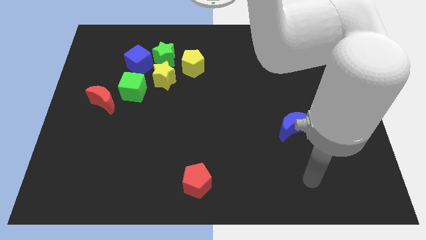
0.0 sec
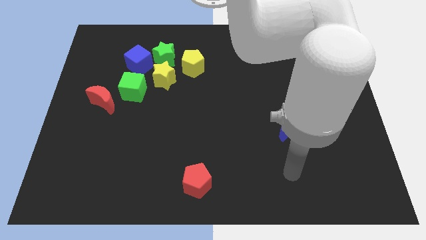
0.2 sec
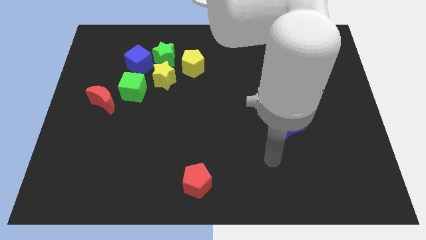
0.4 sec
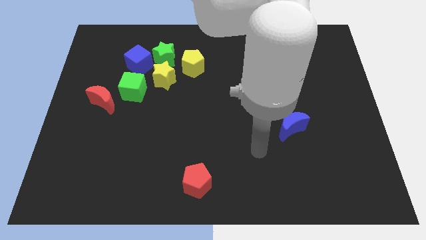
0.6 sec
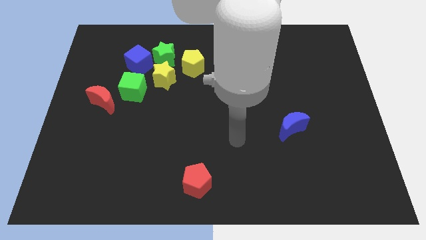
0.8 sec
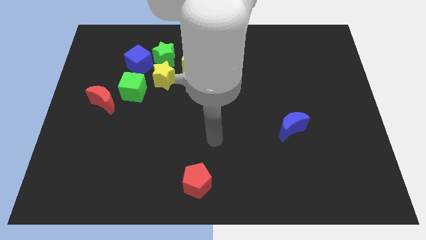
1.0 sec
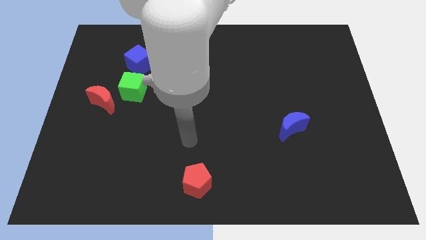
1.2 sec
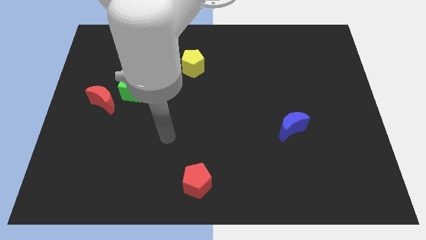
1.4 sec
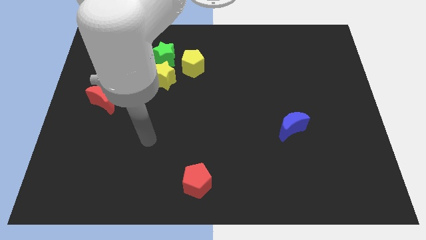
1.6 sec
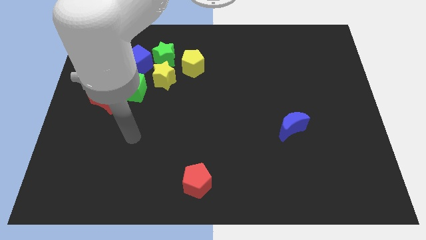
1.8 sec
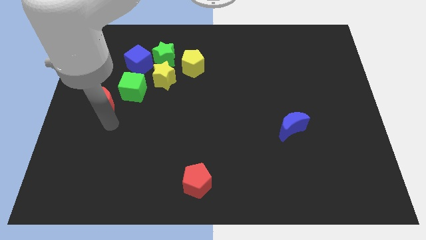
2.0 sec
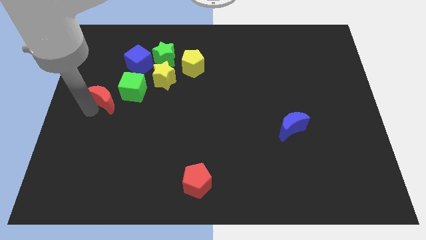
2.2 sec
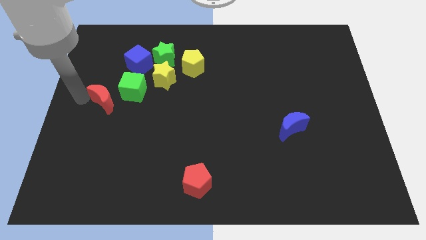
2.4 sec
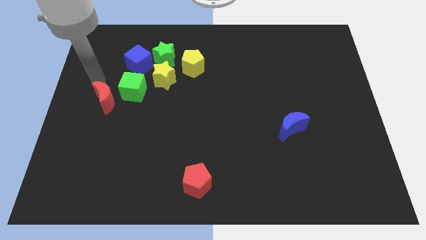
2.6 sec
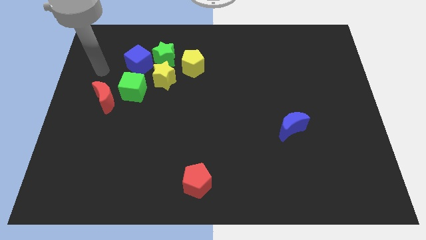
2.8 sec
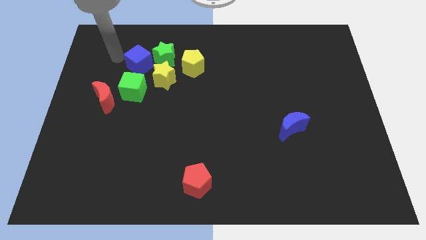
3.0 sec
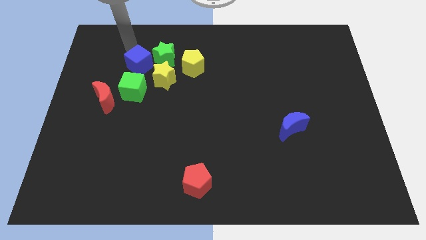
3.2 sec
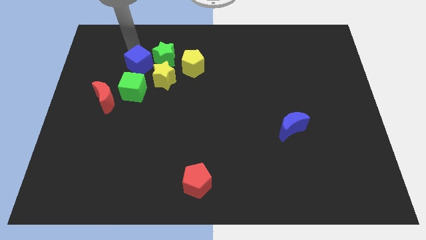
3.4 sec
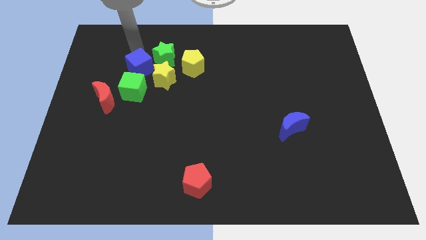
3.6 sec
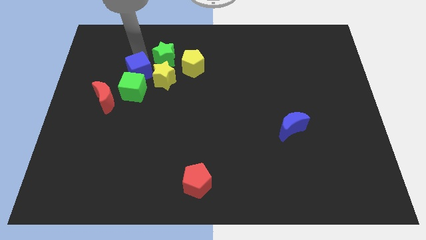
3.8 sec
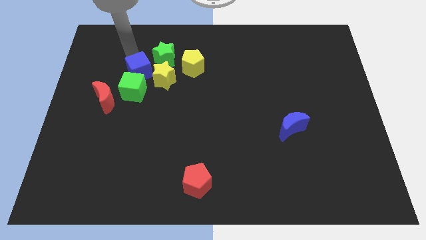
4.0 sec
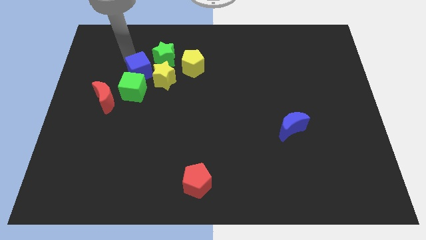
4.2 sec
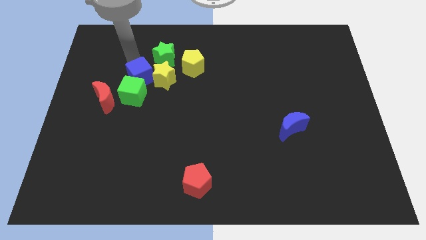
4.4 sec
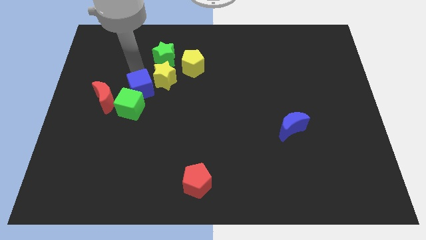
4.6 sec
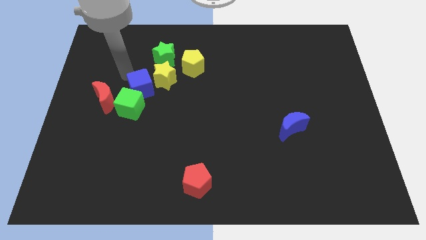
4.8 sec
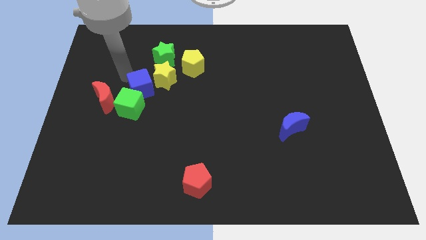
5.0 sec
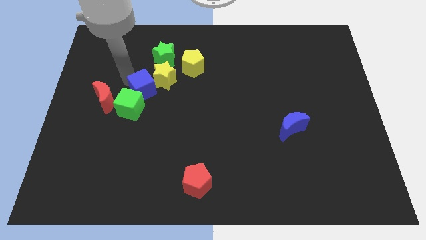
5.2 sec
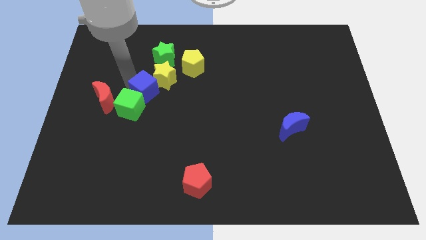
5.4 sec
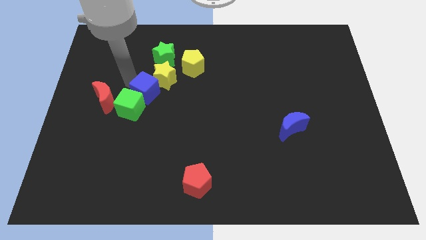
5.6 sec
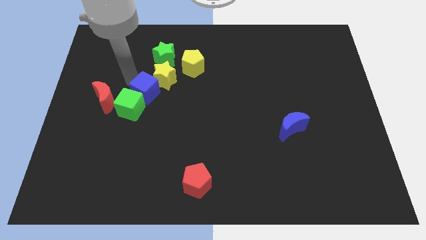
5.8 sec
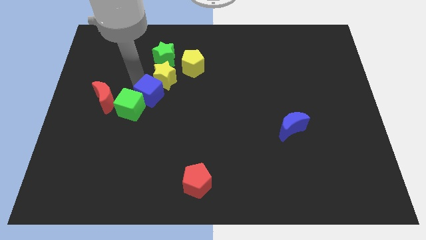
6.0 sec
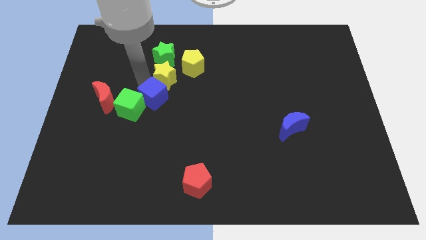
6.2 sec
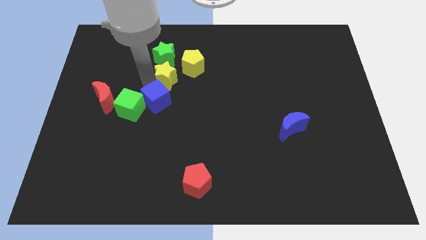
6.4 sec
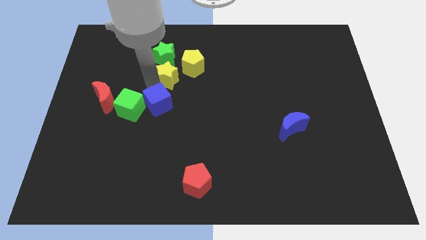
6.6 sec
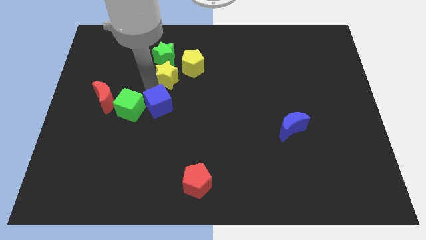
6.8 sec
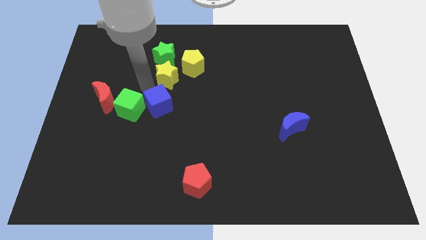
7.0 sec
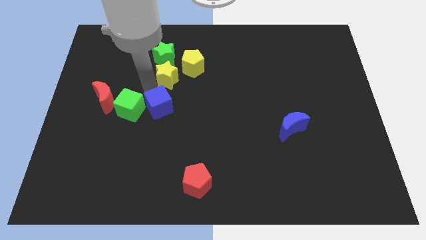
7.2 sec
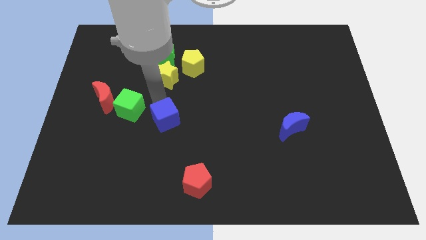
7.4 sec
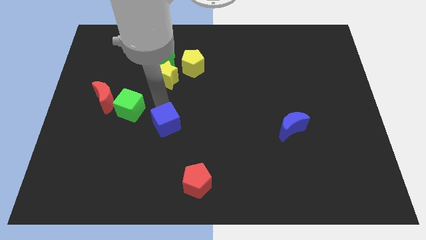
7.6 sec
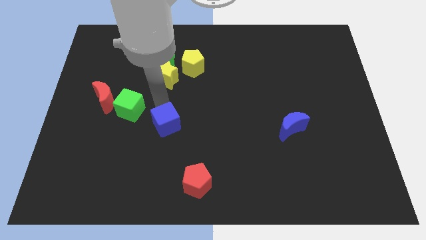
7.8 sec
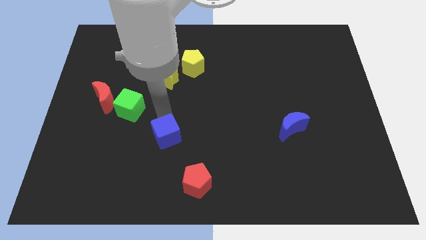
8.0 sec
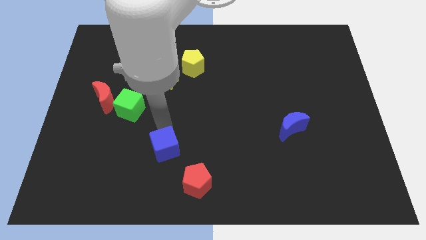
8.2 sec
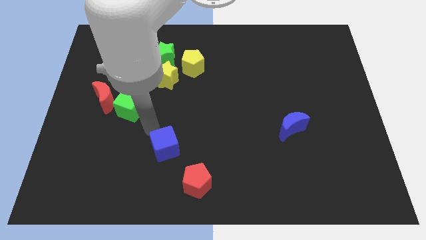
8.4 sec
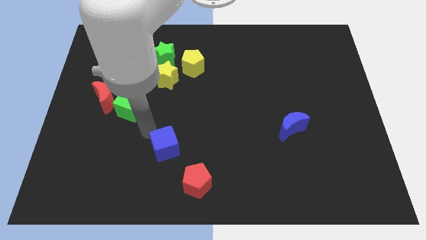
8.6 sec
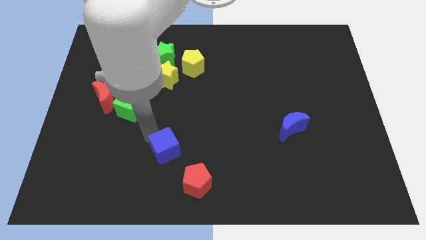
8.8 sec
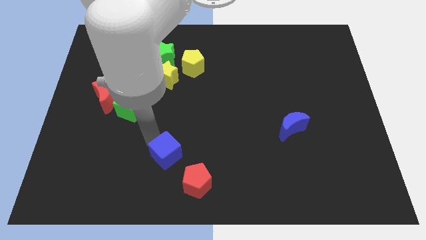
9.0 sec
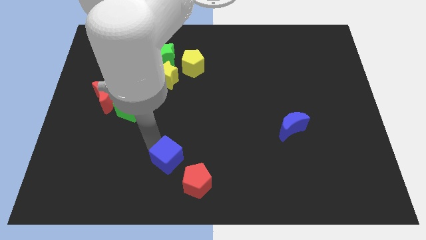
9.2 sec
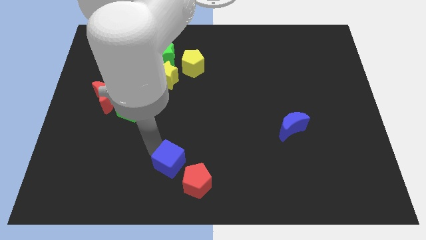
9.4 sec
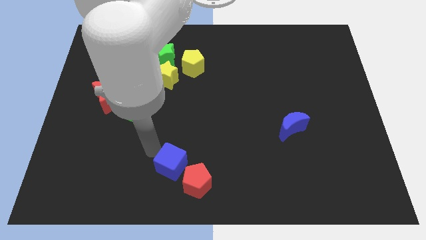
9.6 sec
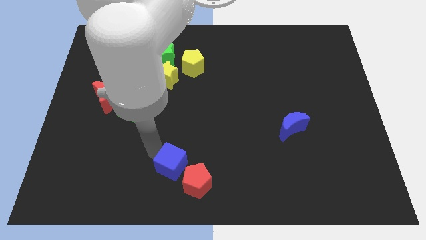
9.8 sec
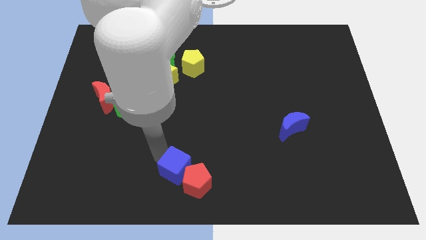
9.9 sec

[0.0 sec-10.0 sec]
move the blue cube to the red pentagon

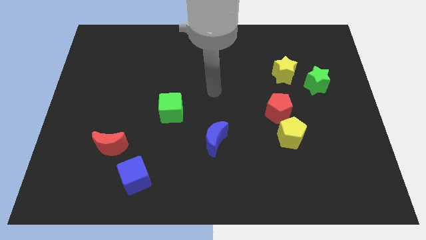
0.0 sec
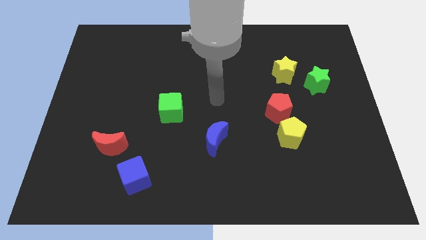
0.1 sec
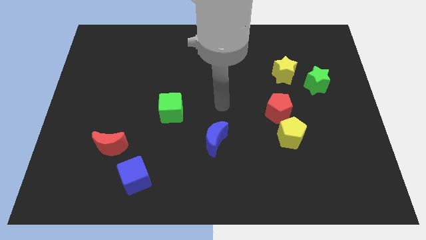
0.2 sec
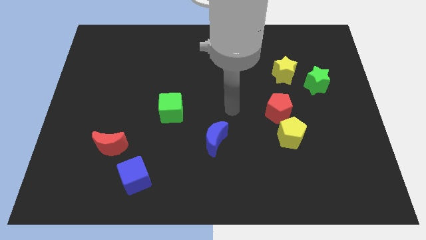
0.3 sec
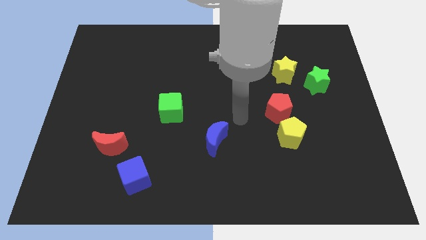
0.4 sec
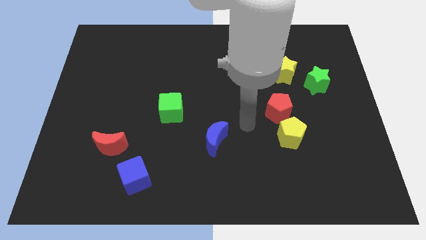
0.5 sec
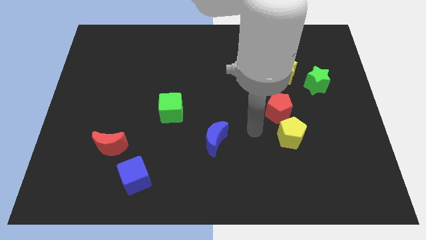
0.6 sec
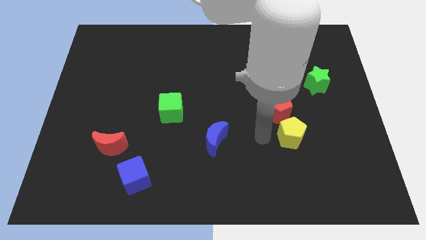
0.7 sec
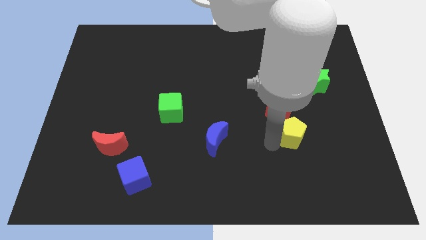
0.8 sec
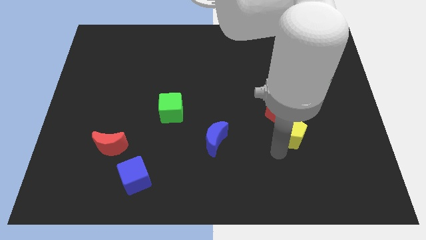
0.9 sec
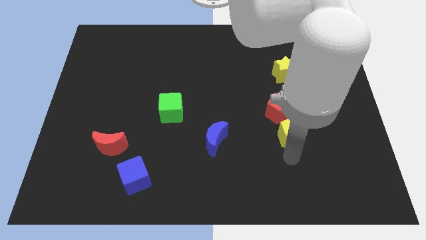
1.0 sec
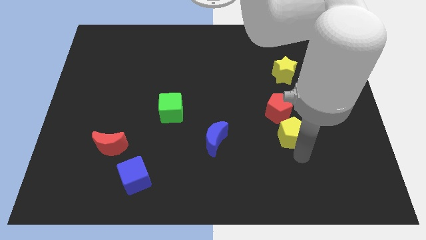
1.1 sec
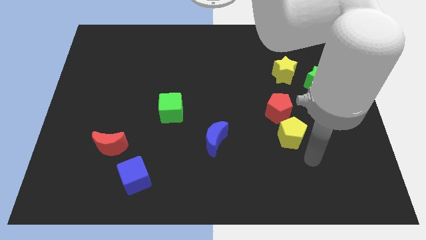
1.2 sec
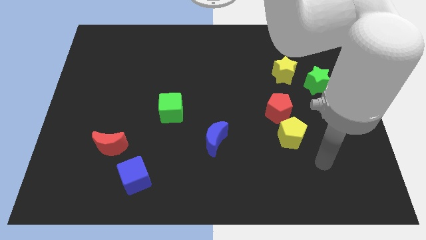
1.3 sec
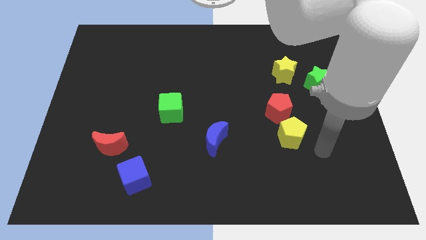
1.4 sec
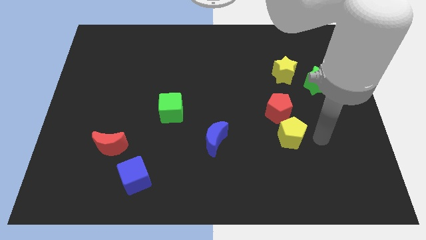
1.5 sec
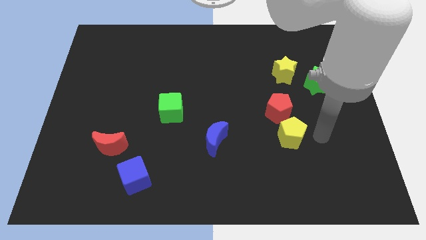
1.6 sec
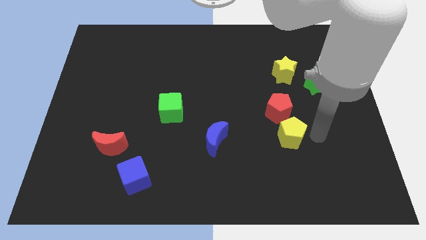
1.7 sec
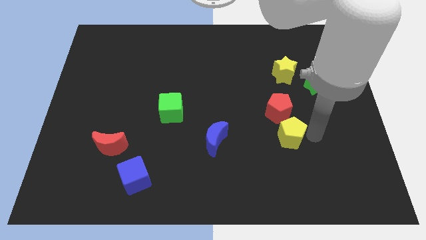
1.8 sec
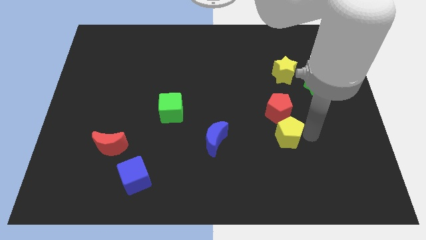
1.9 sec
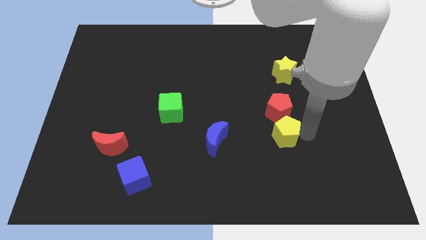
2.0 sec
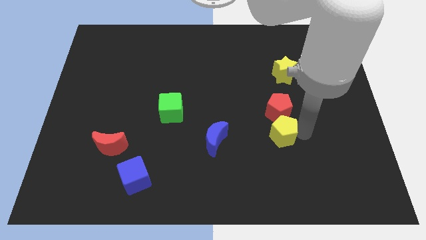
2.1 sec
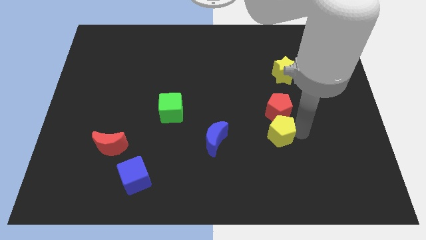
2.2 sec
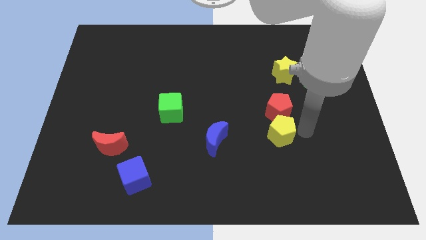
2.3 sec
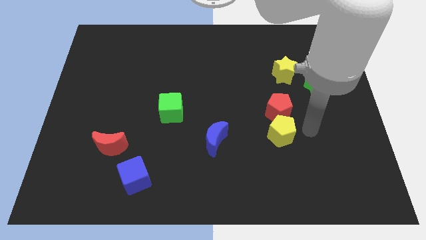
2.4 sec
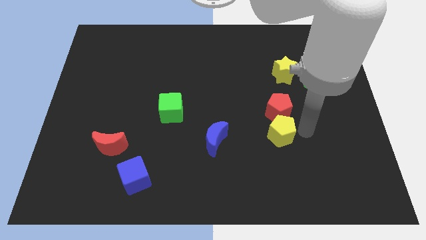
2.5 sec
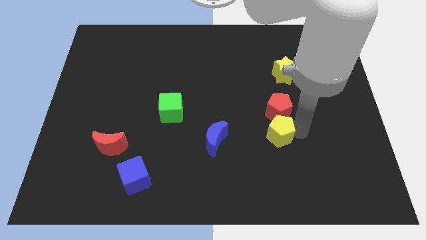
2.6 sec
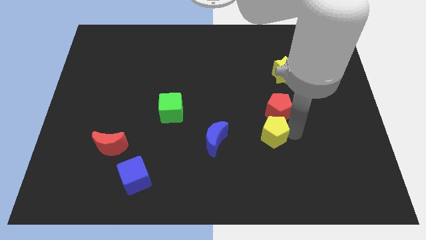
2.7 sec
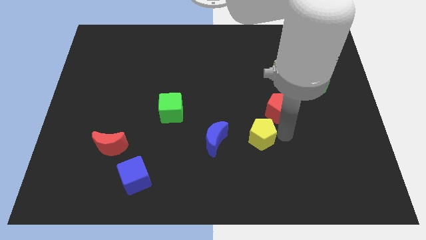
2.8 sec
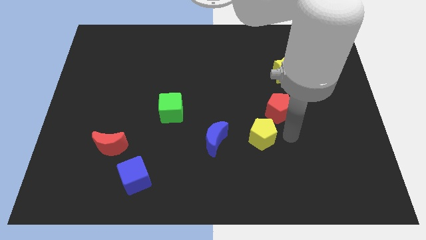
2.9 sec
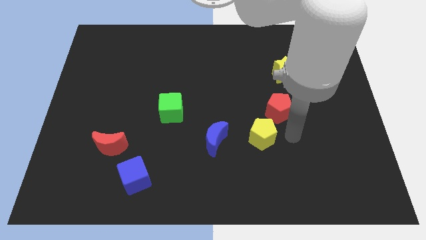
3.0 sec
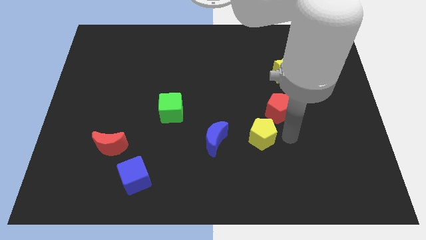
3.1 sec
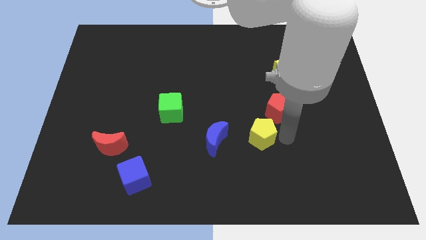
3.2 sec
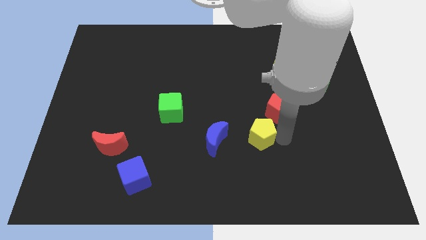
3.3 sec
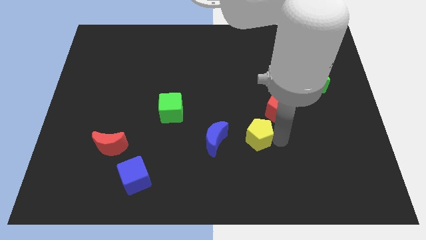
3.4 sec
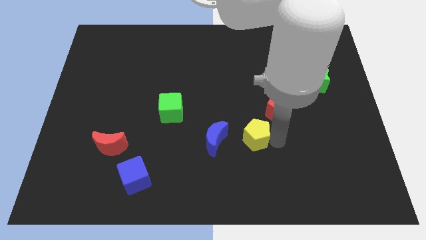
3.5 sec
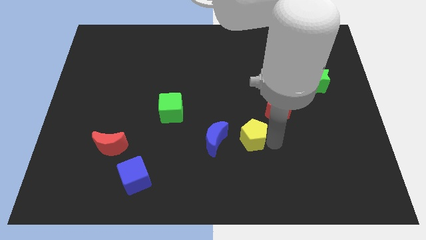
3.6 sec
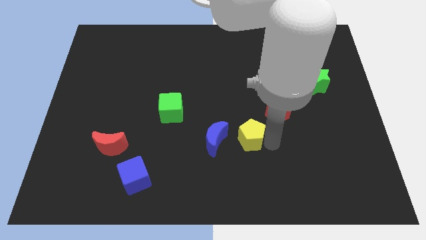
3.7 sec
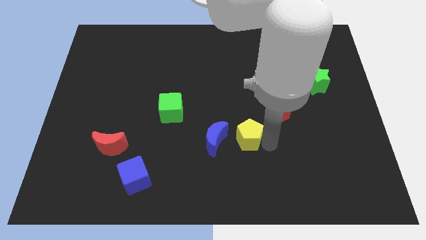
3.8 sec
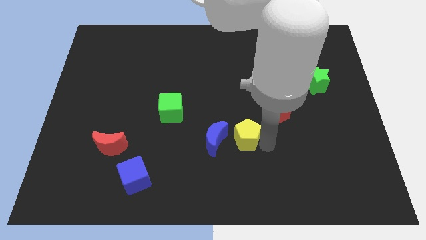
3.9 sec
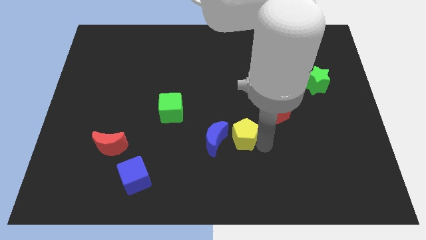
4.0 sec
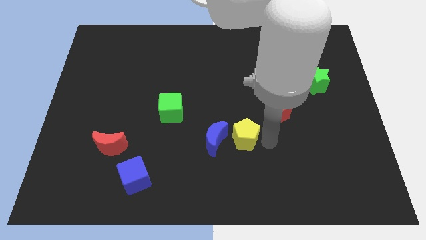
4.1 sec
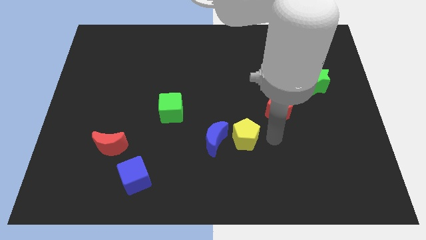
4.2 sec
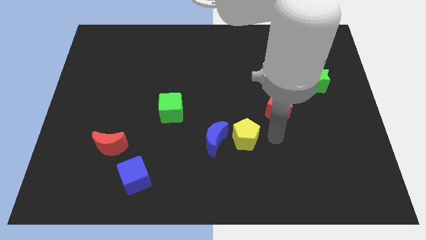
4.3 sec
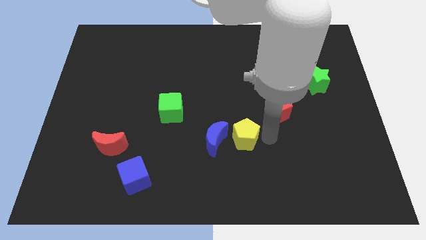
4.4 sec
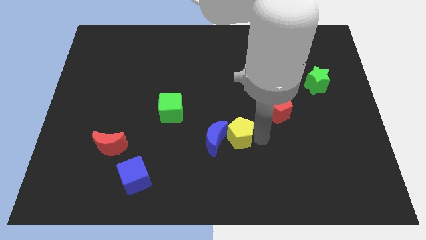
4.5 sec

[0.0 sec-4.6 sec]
push the yellow pentagon to the blue moon
